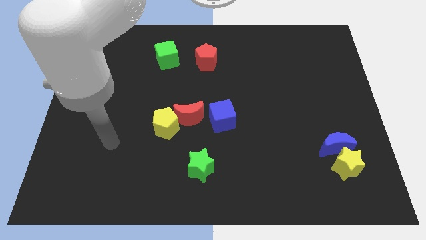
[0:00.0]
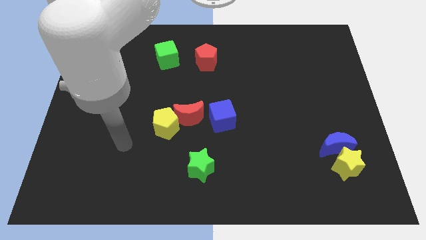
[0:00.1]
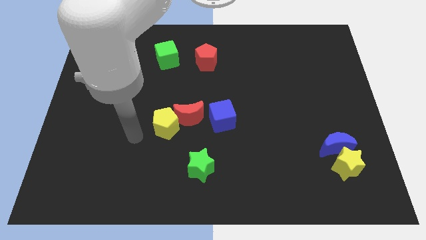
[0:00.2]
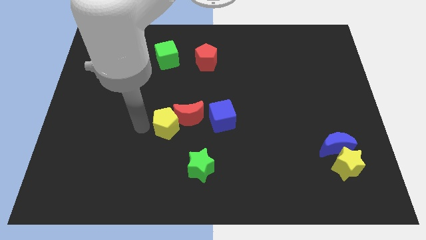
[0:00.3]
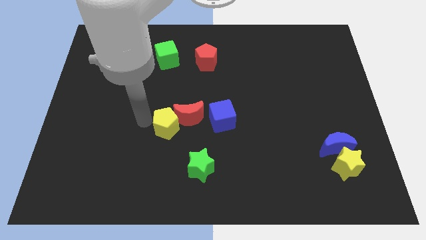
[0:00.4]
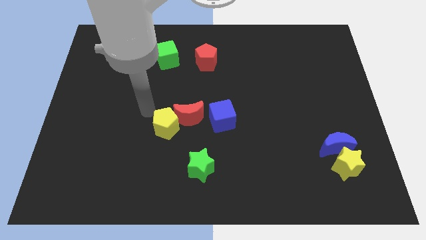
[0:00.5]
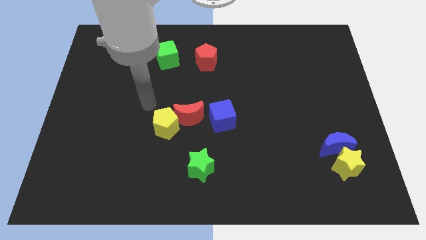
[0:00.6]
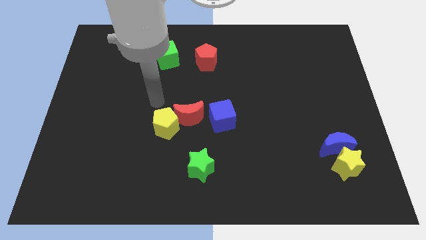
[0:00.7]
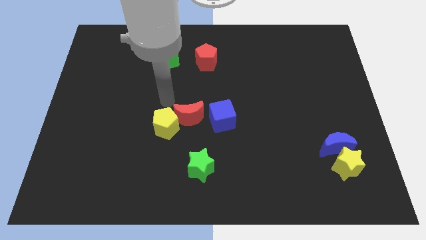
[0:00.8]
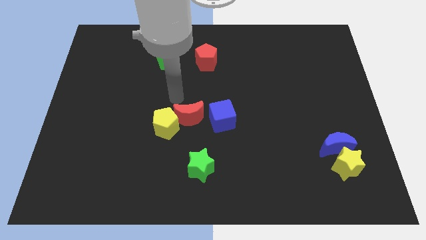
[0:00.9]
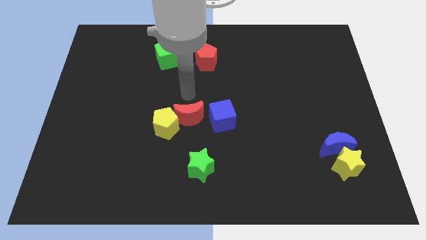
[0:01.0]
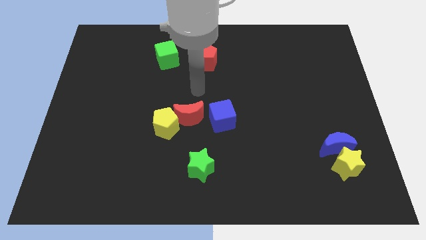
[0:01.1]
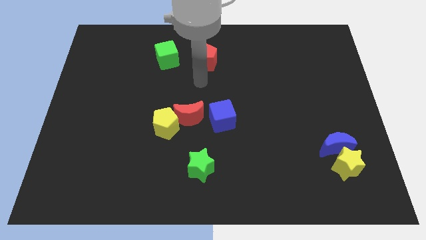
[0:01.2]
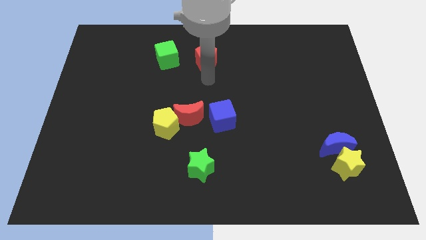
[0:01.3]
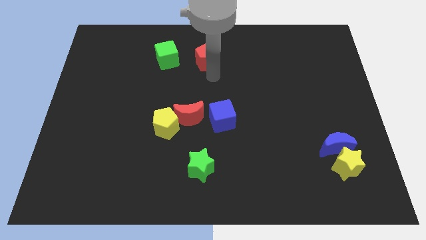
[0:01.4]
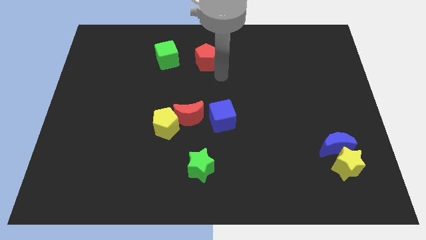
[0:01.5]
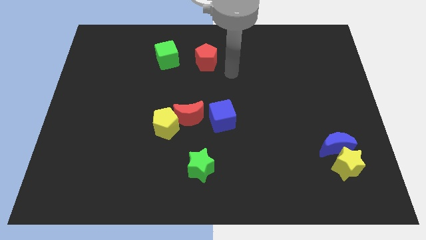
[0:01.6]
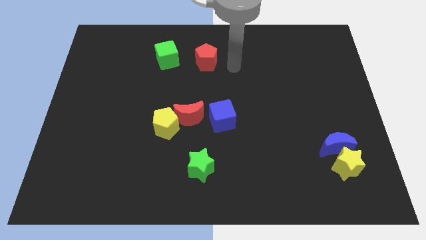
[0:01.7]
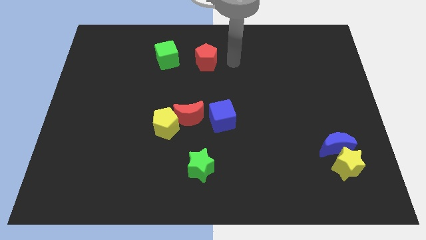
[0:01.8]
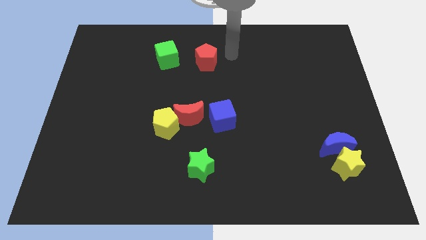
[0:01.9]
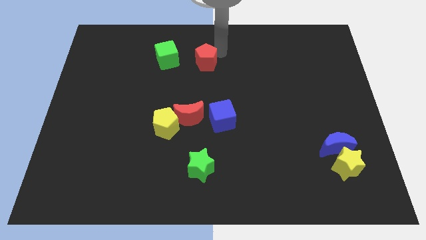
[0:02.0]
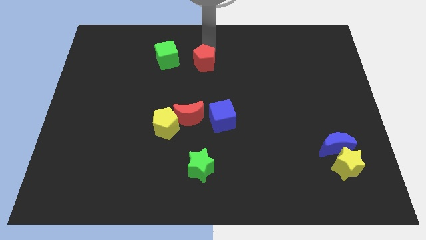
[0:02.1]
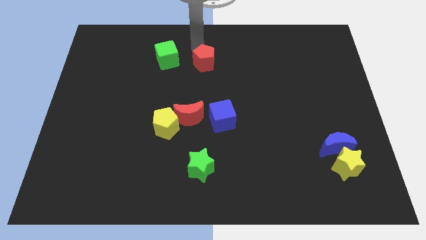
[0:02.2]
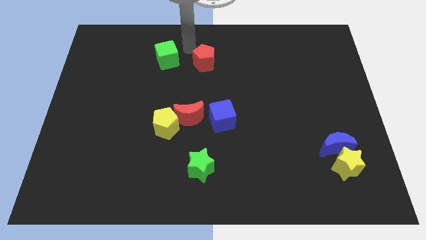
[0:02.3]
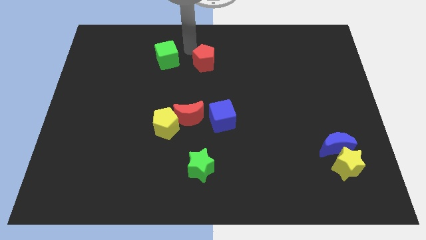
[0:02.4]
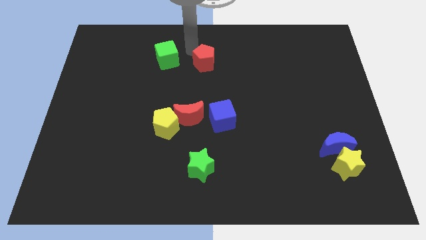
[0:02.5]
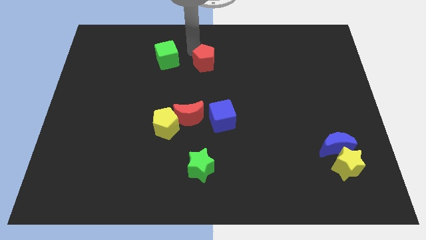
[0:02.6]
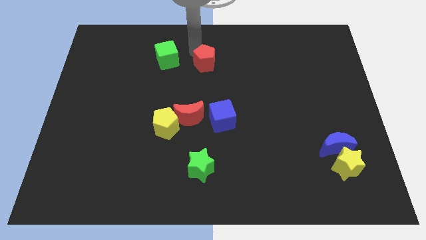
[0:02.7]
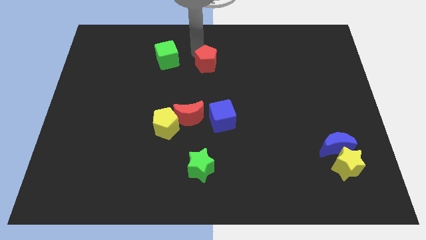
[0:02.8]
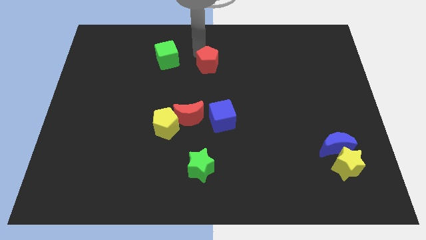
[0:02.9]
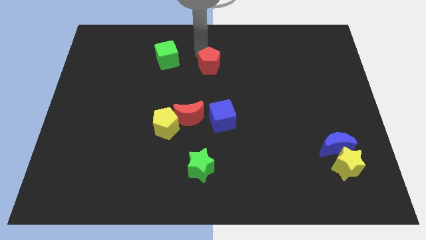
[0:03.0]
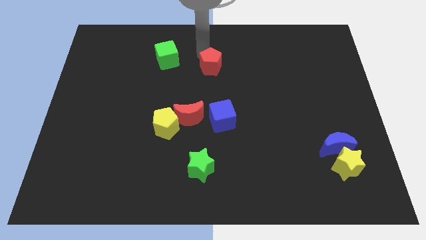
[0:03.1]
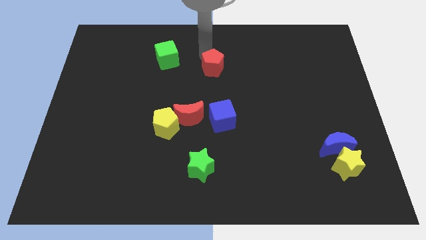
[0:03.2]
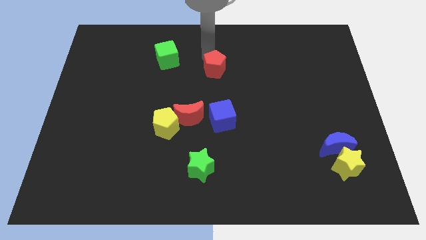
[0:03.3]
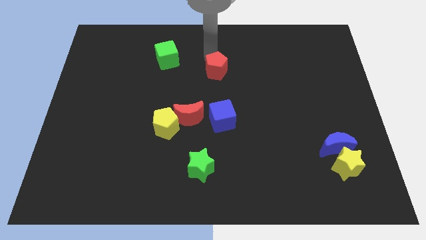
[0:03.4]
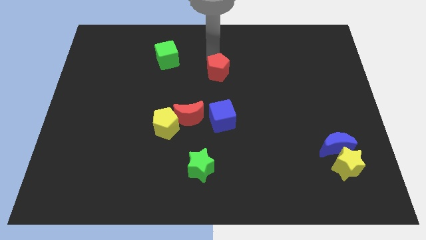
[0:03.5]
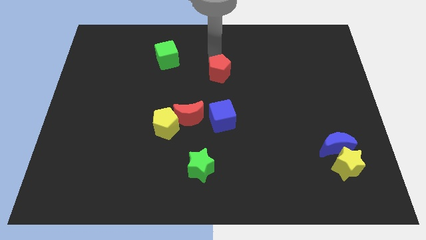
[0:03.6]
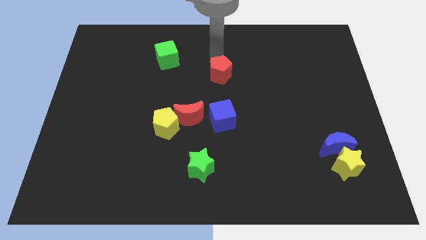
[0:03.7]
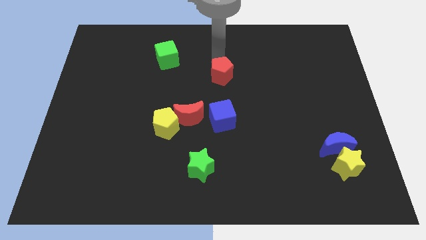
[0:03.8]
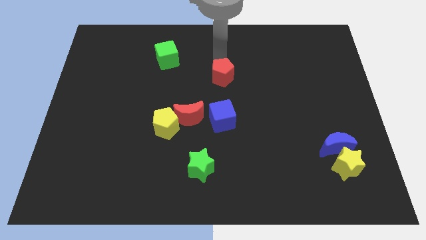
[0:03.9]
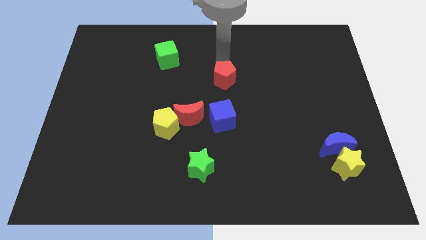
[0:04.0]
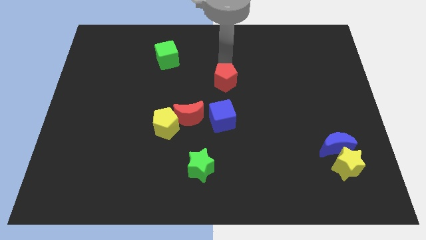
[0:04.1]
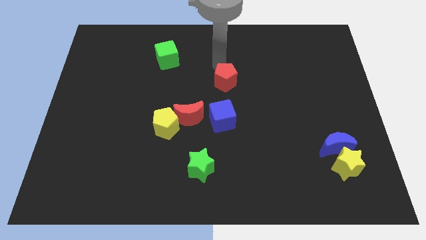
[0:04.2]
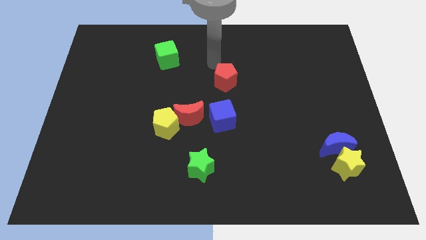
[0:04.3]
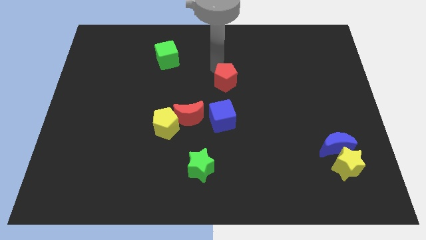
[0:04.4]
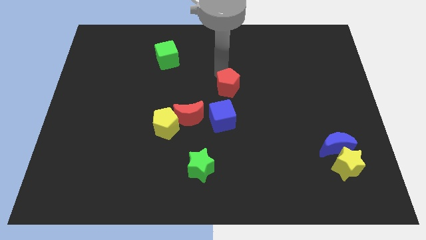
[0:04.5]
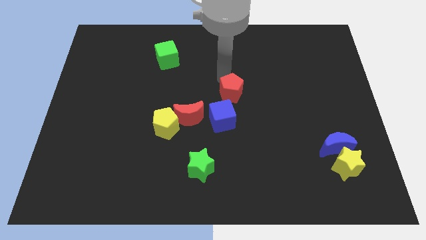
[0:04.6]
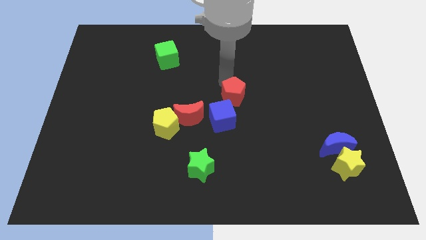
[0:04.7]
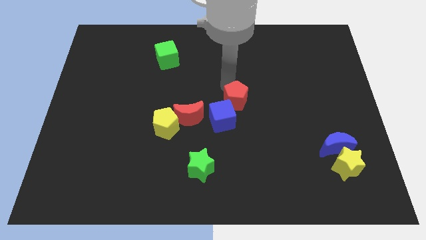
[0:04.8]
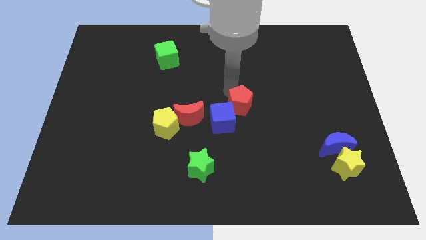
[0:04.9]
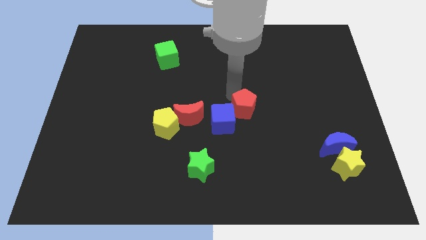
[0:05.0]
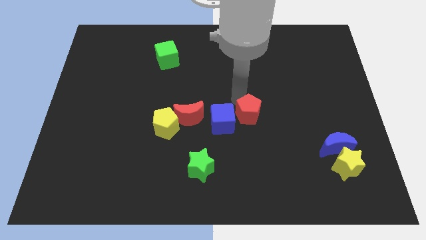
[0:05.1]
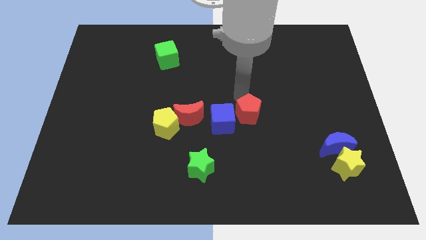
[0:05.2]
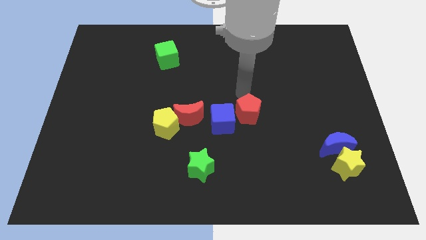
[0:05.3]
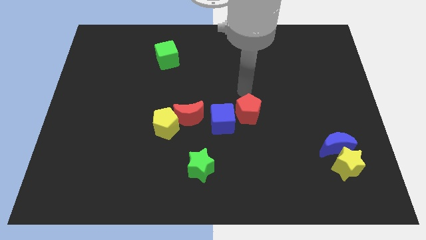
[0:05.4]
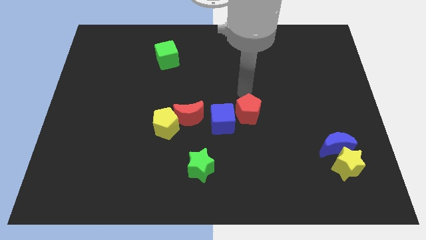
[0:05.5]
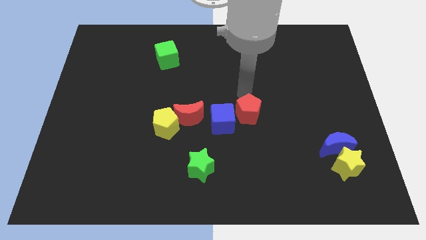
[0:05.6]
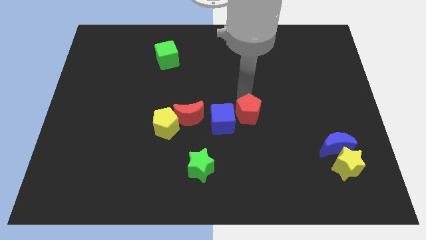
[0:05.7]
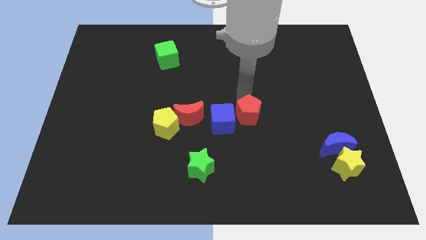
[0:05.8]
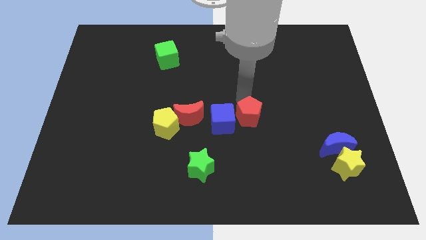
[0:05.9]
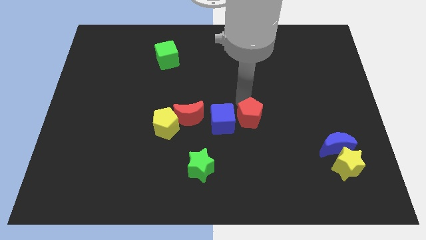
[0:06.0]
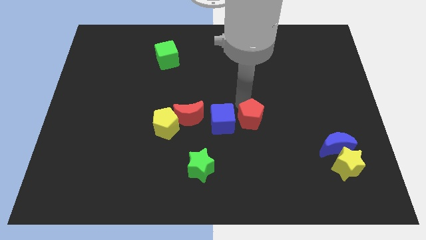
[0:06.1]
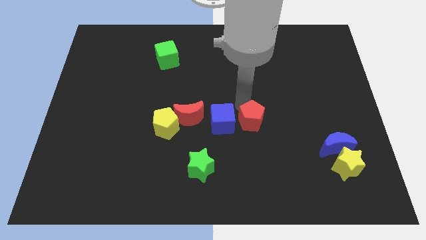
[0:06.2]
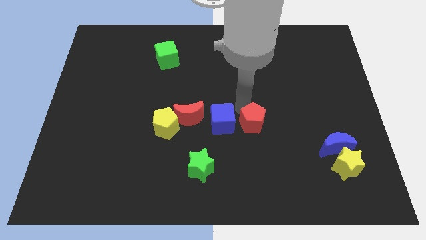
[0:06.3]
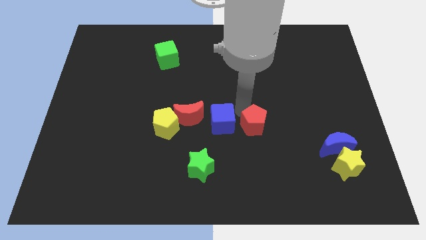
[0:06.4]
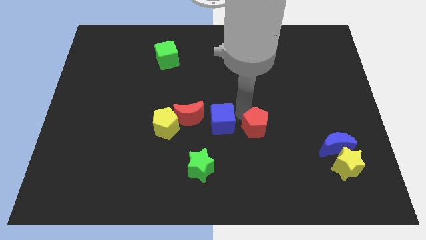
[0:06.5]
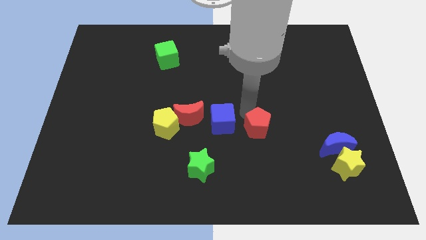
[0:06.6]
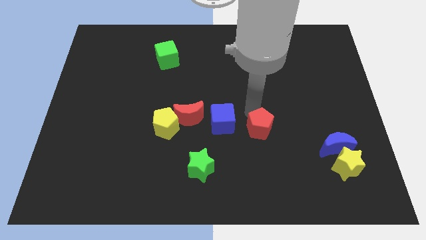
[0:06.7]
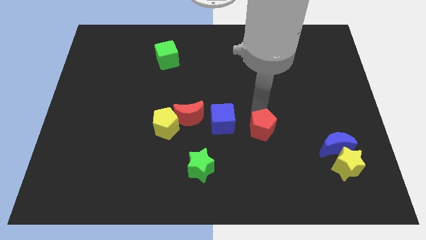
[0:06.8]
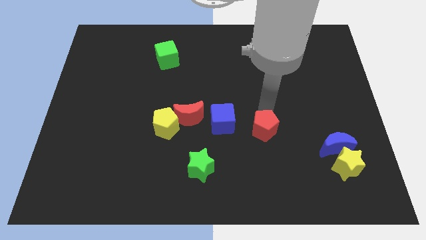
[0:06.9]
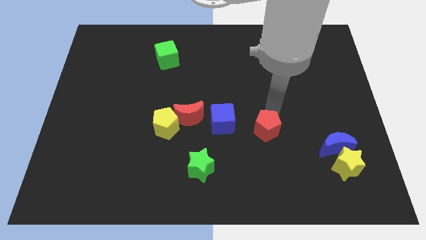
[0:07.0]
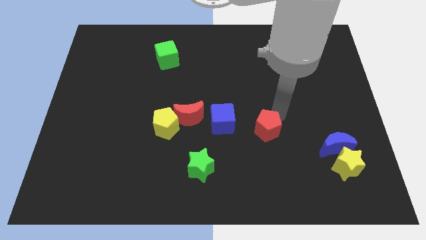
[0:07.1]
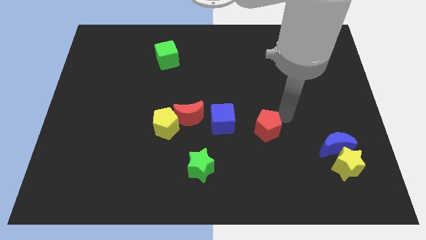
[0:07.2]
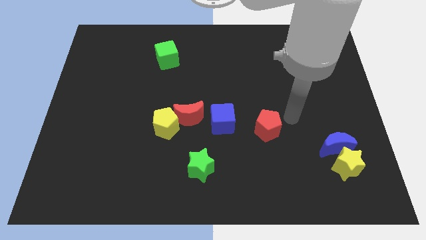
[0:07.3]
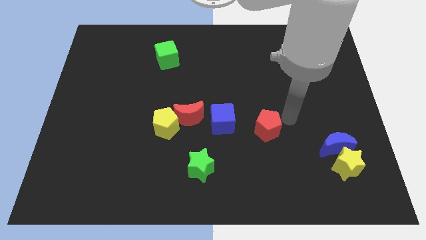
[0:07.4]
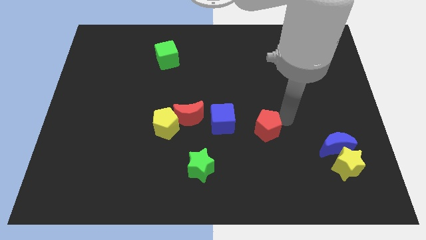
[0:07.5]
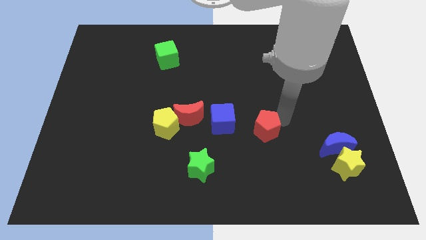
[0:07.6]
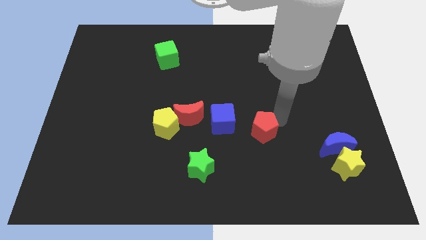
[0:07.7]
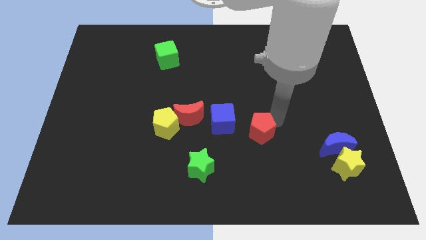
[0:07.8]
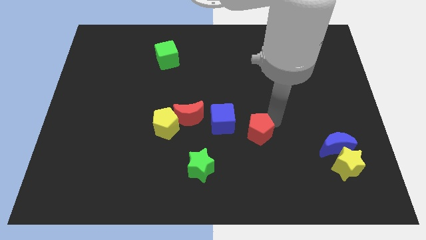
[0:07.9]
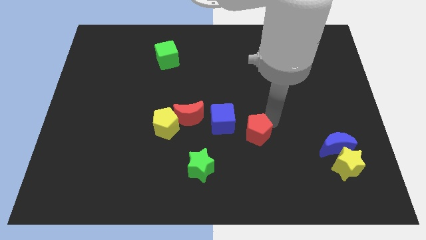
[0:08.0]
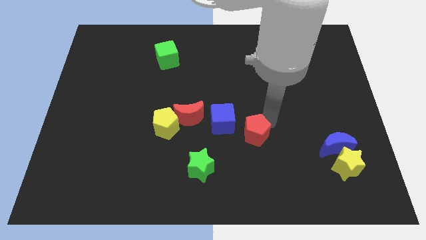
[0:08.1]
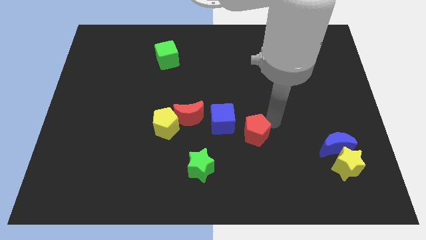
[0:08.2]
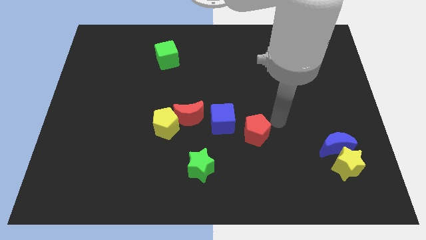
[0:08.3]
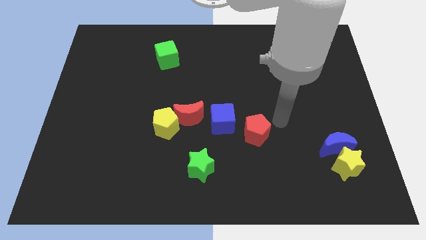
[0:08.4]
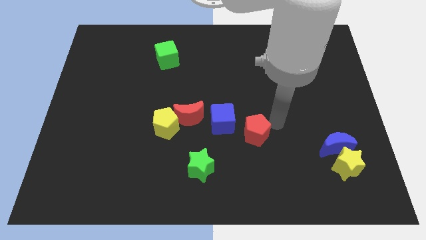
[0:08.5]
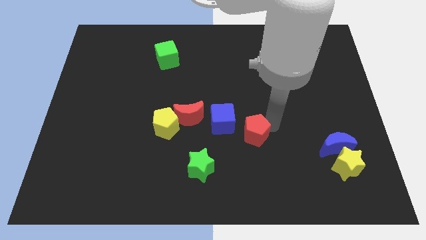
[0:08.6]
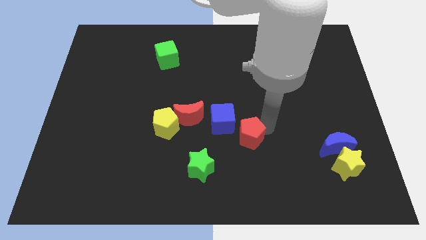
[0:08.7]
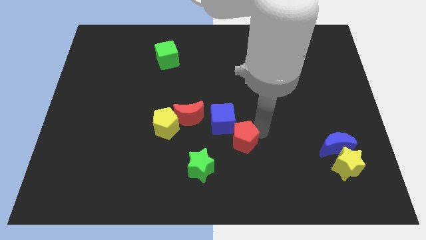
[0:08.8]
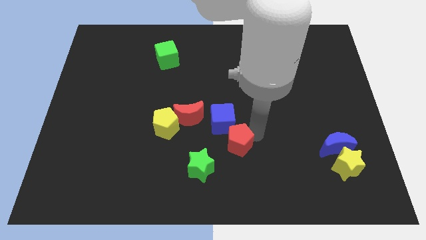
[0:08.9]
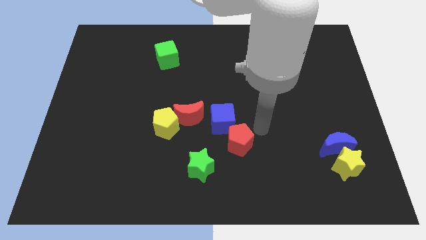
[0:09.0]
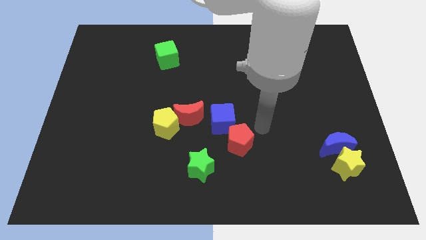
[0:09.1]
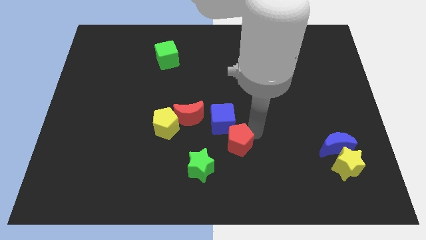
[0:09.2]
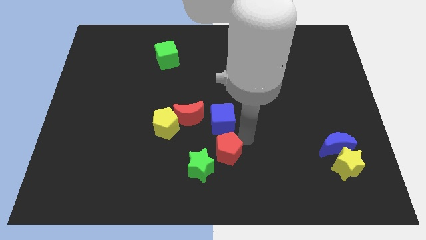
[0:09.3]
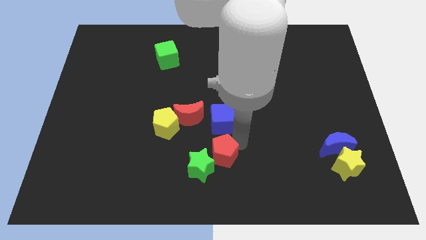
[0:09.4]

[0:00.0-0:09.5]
push the red pentagon towards the green star
